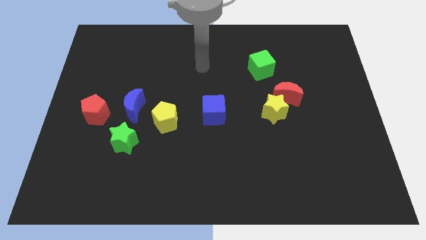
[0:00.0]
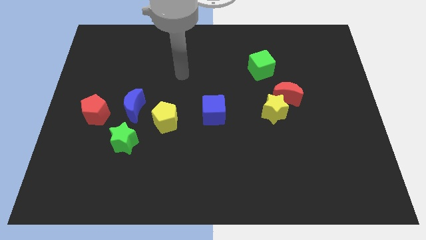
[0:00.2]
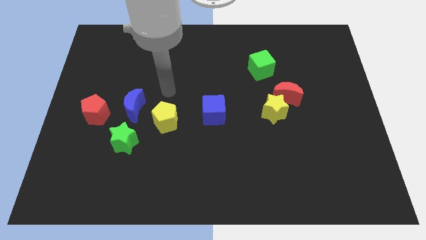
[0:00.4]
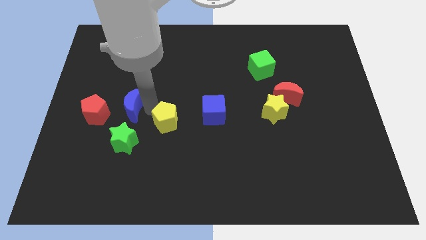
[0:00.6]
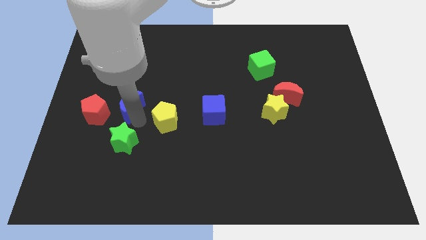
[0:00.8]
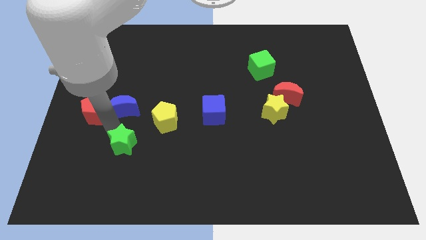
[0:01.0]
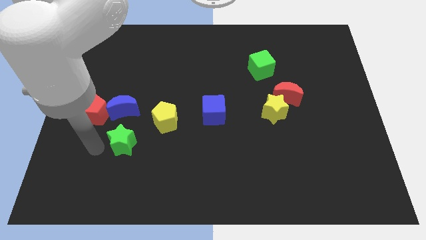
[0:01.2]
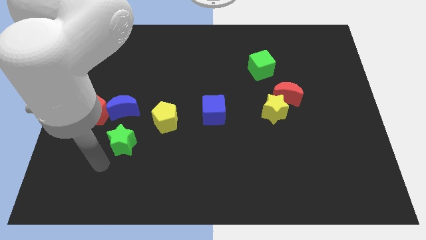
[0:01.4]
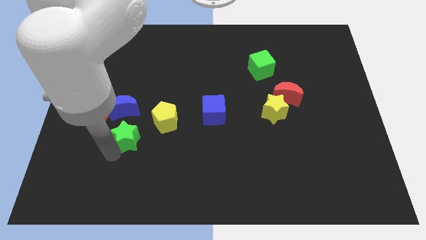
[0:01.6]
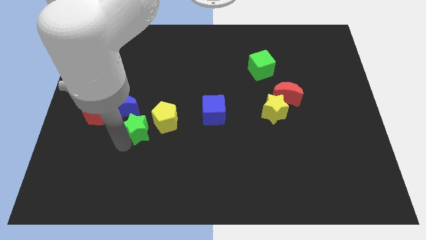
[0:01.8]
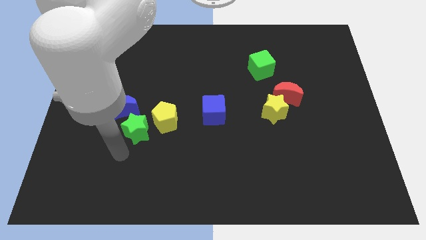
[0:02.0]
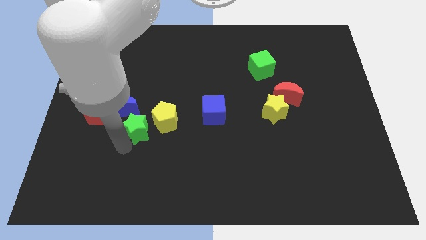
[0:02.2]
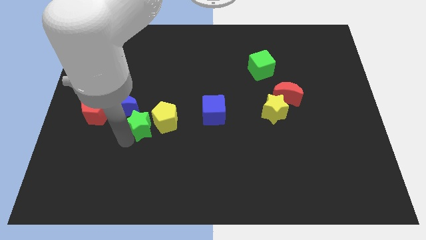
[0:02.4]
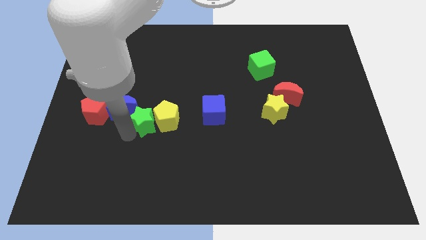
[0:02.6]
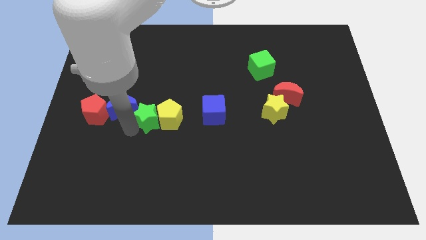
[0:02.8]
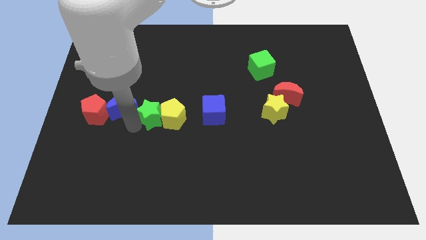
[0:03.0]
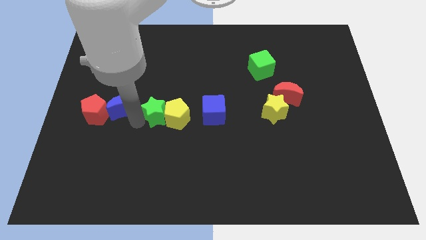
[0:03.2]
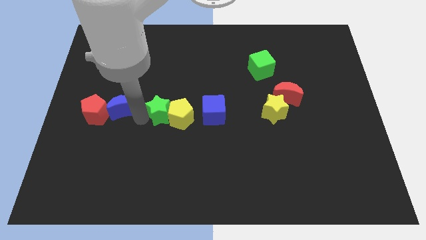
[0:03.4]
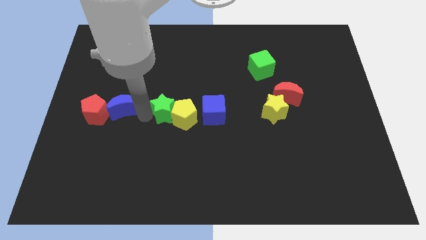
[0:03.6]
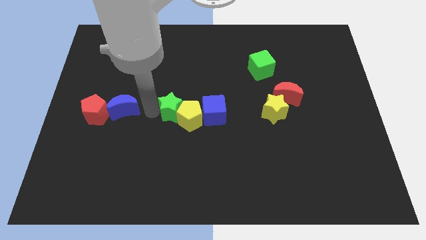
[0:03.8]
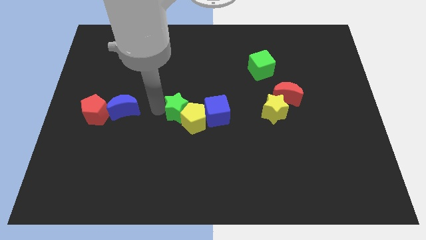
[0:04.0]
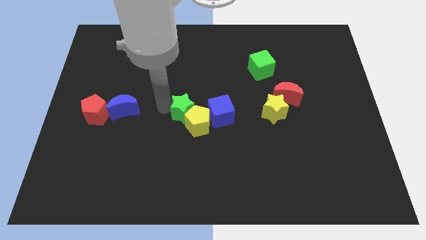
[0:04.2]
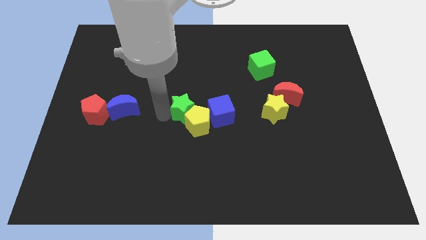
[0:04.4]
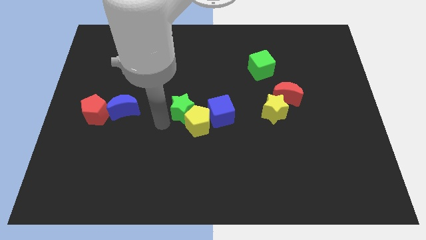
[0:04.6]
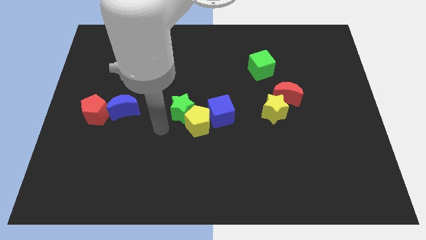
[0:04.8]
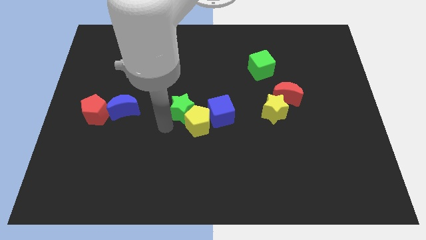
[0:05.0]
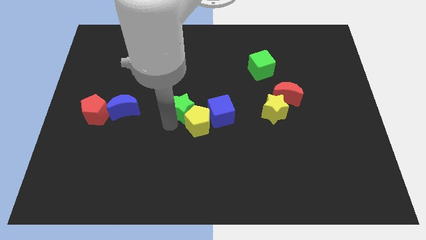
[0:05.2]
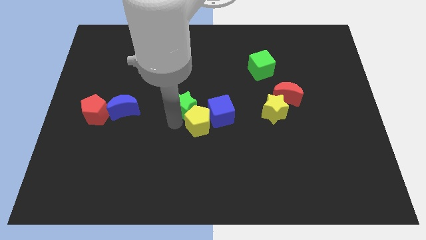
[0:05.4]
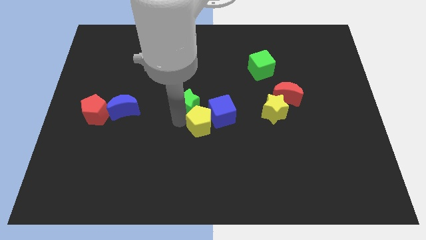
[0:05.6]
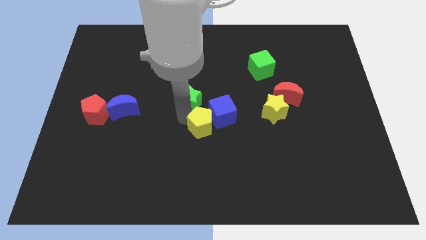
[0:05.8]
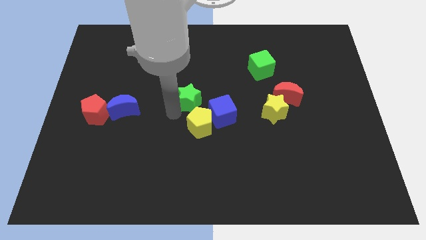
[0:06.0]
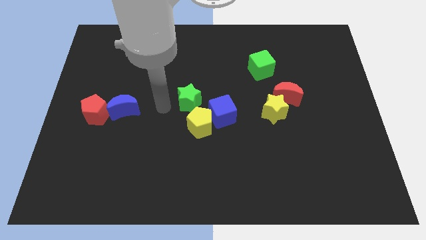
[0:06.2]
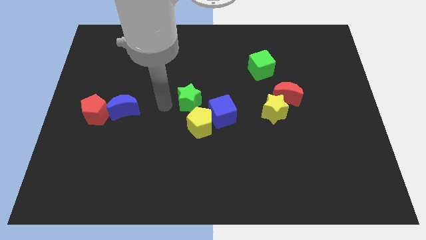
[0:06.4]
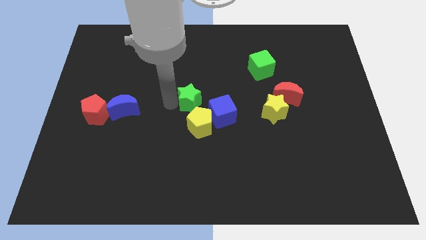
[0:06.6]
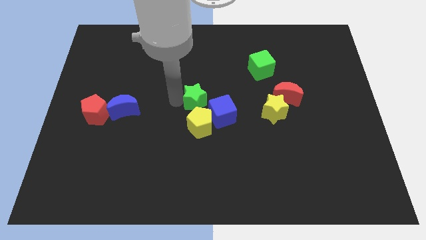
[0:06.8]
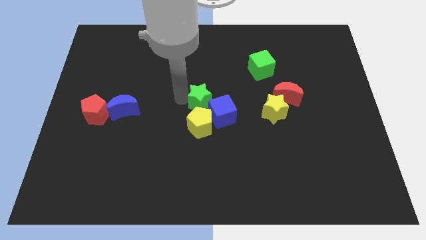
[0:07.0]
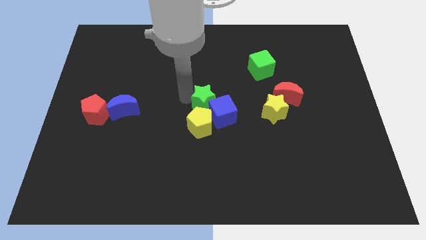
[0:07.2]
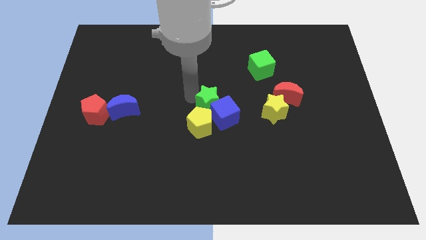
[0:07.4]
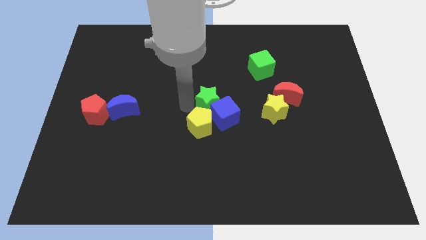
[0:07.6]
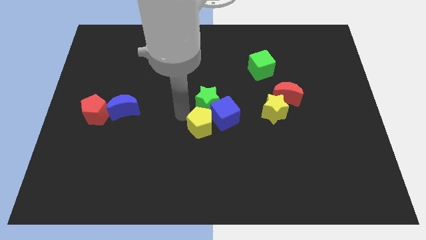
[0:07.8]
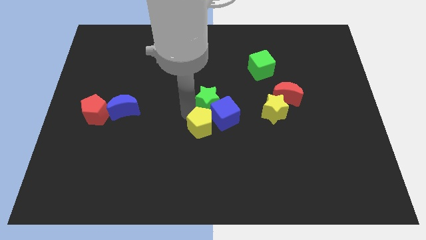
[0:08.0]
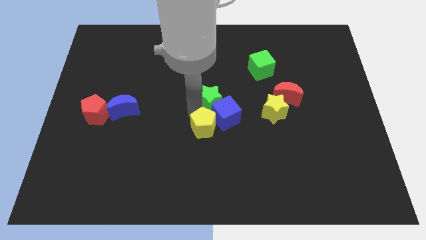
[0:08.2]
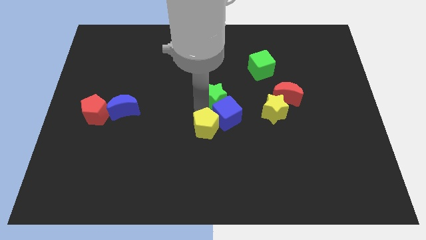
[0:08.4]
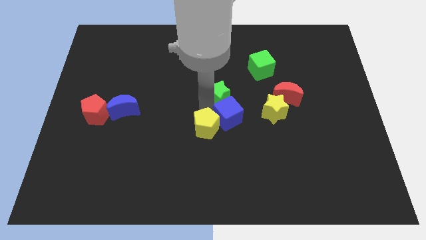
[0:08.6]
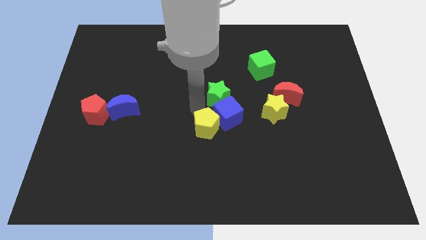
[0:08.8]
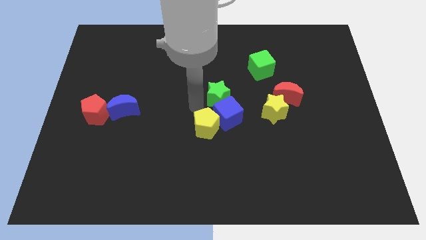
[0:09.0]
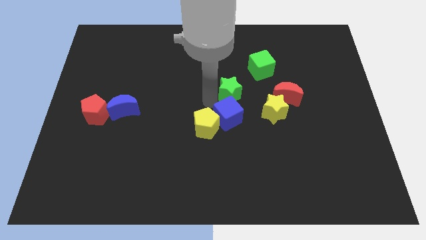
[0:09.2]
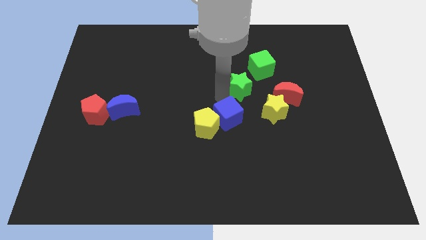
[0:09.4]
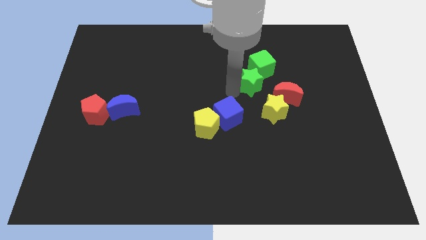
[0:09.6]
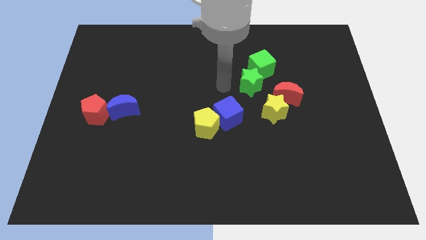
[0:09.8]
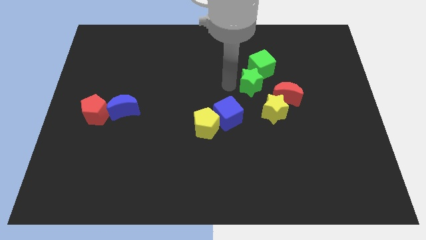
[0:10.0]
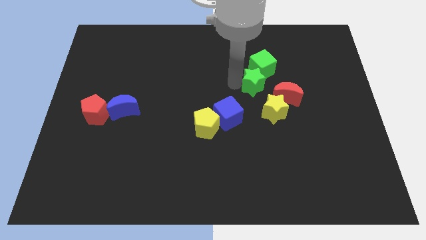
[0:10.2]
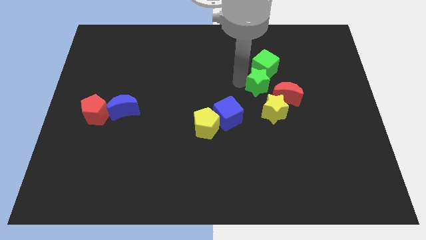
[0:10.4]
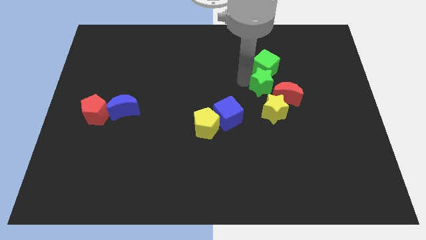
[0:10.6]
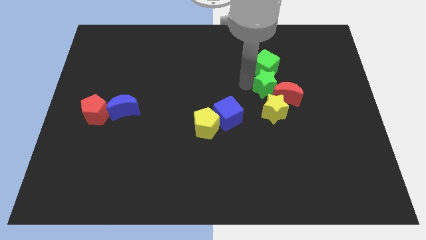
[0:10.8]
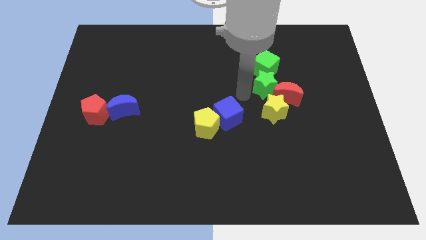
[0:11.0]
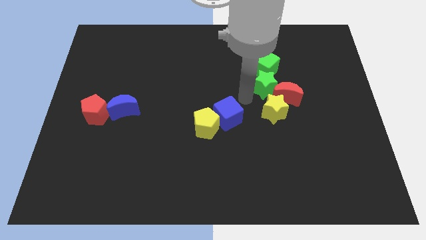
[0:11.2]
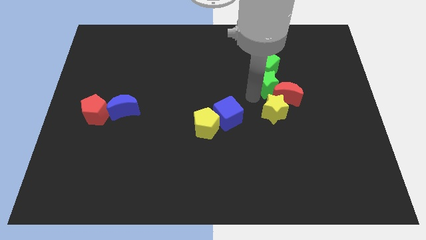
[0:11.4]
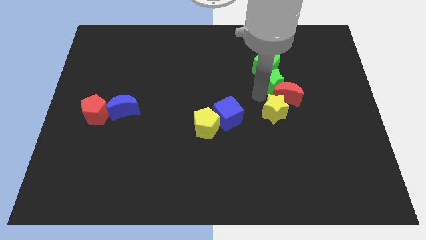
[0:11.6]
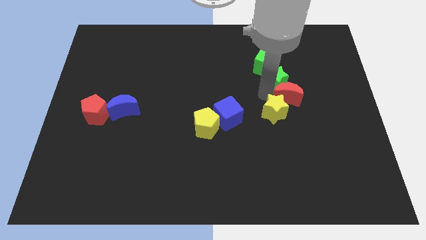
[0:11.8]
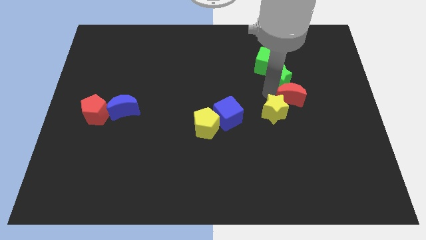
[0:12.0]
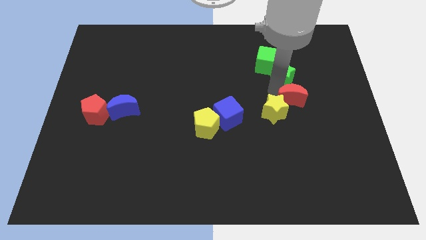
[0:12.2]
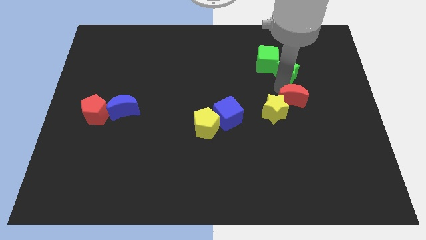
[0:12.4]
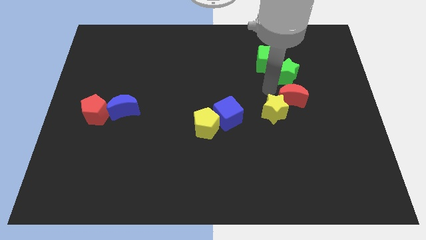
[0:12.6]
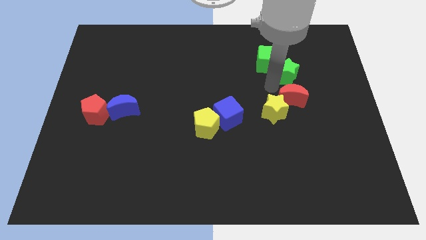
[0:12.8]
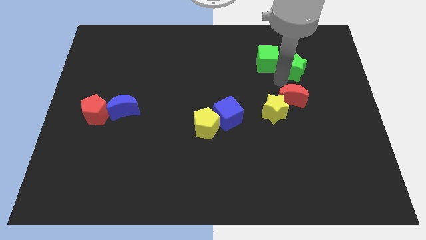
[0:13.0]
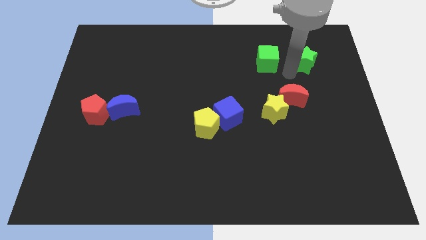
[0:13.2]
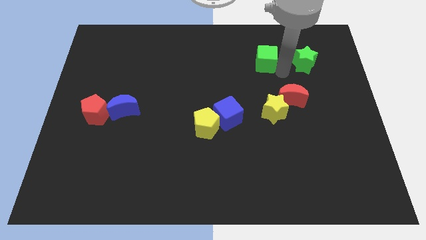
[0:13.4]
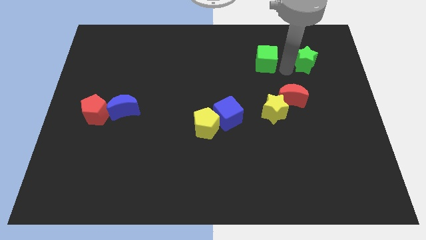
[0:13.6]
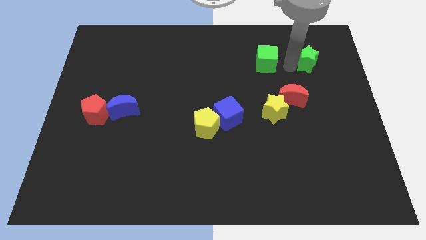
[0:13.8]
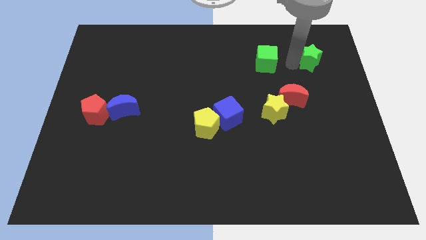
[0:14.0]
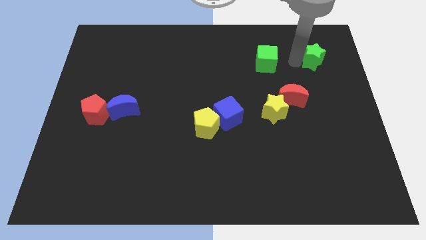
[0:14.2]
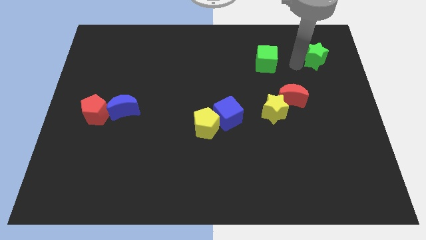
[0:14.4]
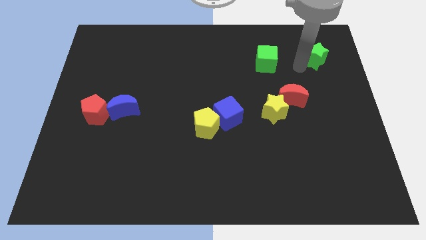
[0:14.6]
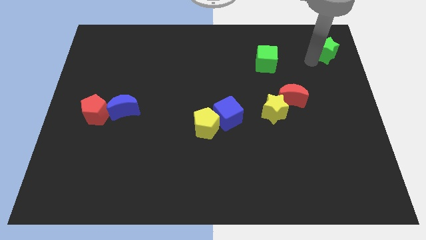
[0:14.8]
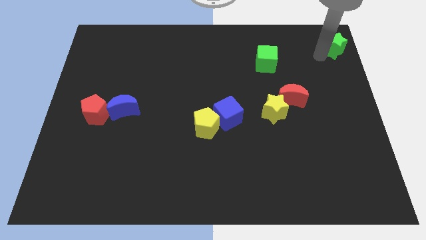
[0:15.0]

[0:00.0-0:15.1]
slide the green star to the top right corner
